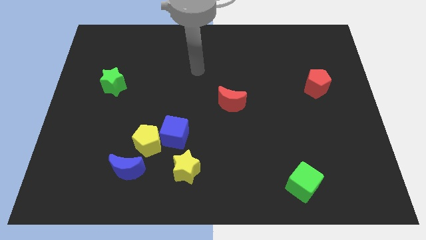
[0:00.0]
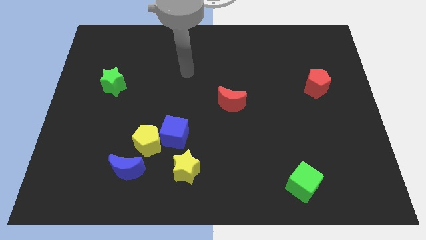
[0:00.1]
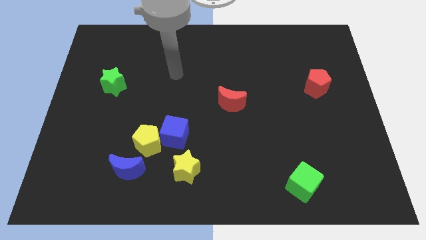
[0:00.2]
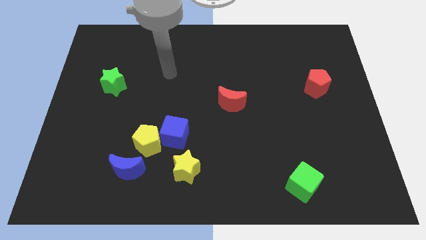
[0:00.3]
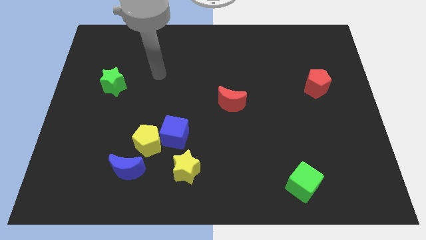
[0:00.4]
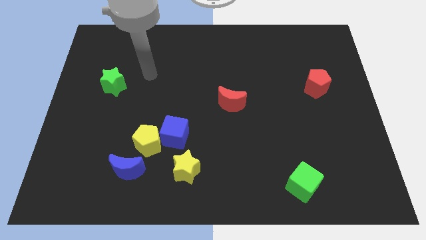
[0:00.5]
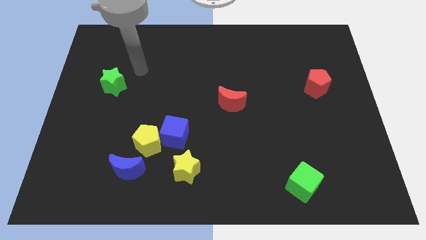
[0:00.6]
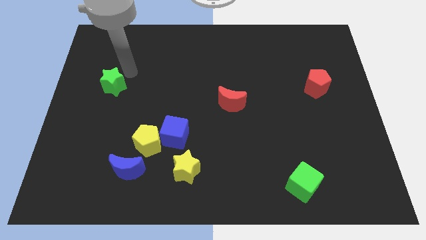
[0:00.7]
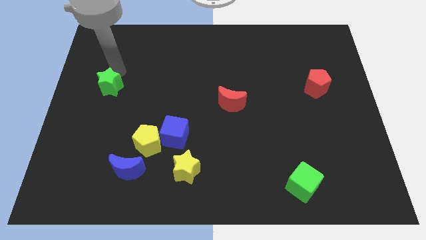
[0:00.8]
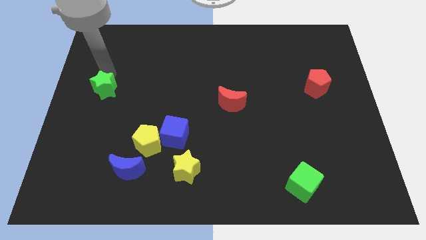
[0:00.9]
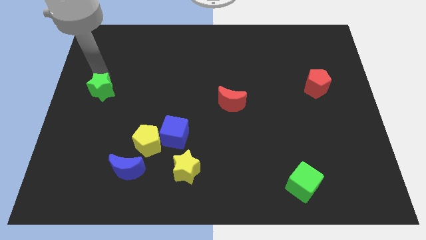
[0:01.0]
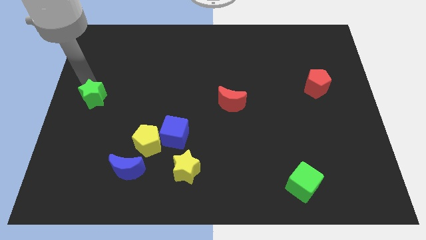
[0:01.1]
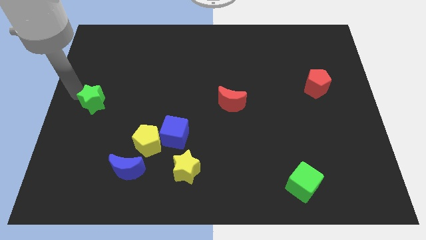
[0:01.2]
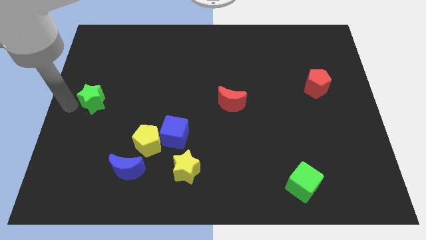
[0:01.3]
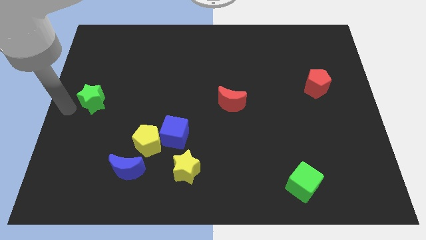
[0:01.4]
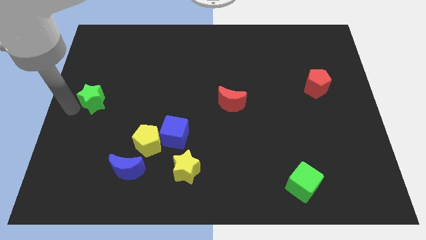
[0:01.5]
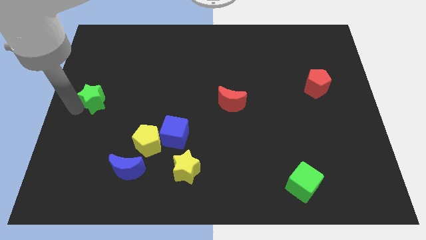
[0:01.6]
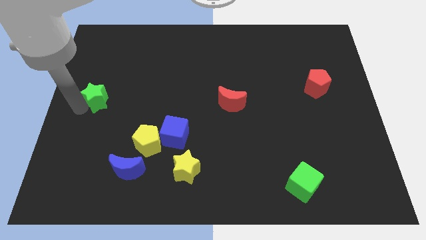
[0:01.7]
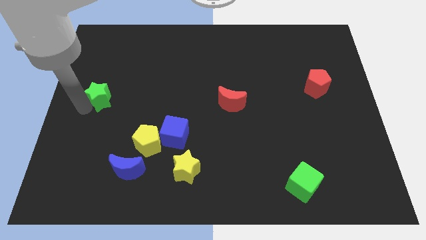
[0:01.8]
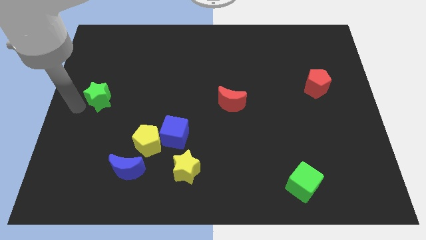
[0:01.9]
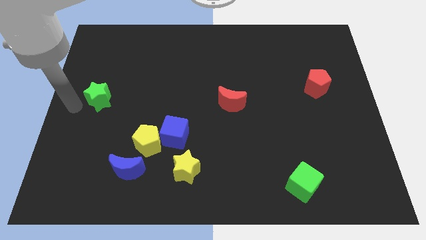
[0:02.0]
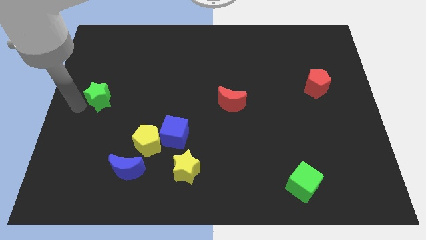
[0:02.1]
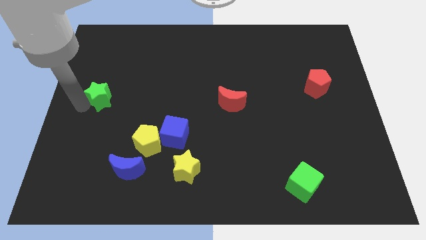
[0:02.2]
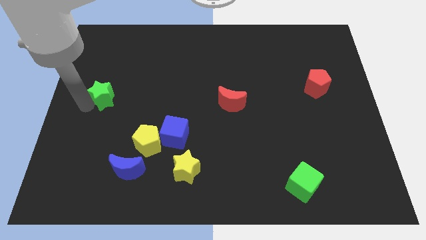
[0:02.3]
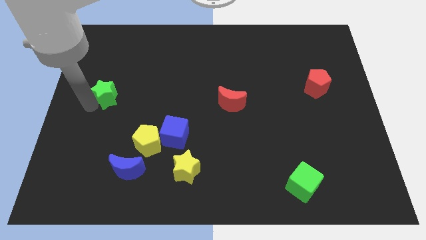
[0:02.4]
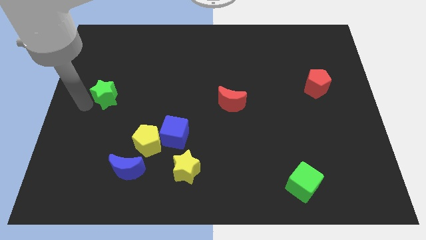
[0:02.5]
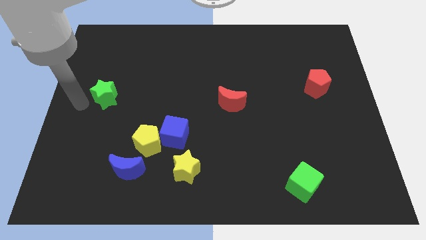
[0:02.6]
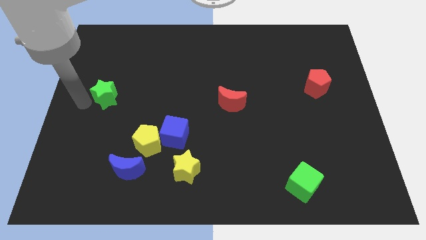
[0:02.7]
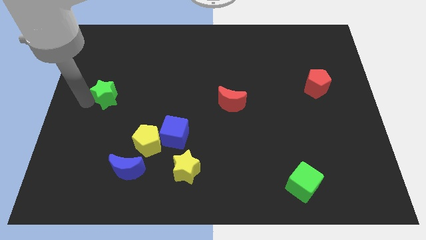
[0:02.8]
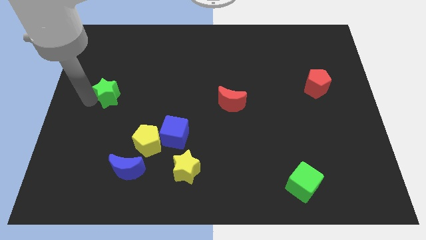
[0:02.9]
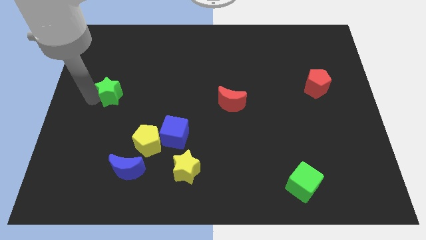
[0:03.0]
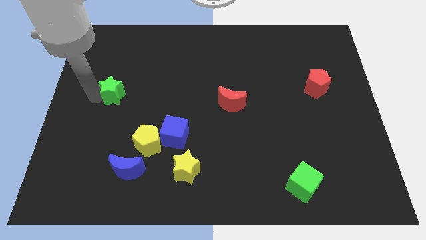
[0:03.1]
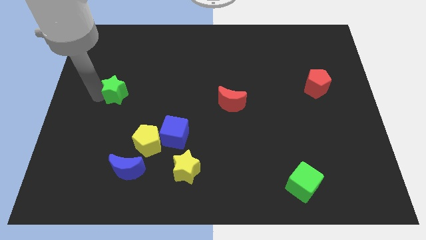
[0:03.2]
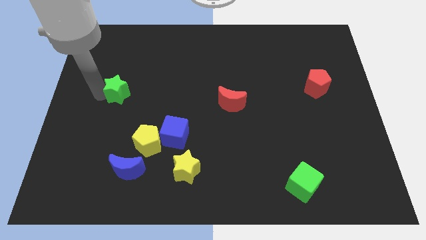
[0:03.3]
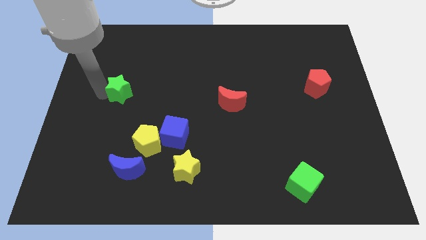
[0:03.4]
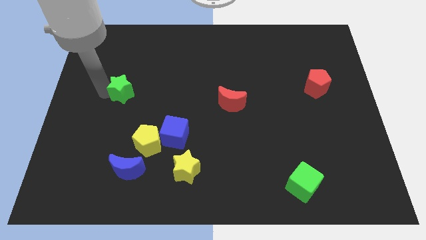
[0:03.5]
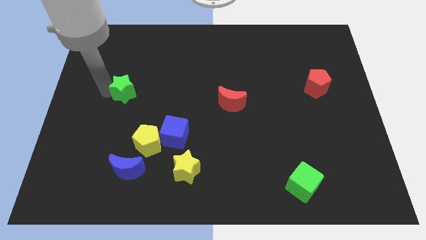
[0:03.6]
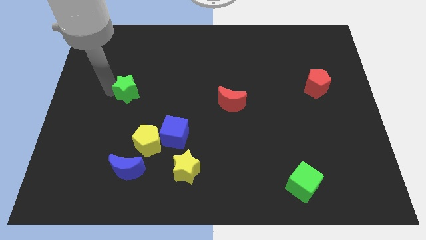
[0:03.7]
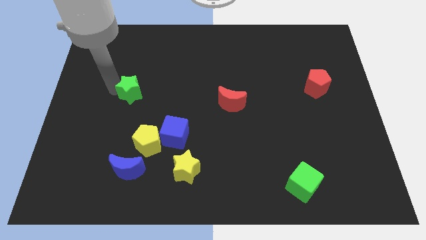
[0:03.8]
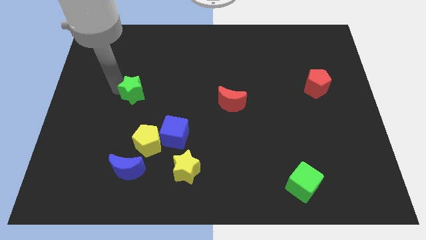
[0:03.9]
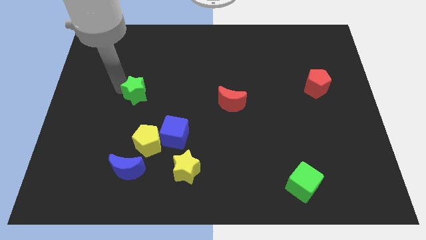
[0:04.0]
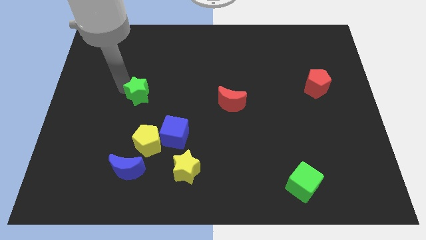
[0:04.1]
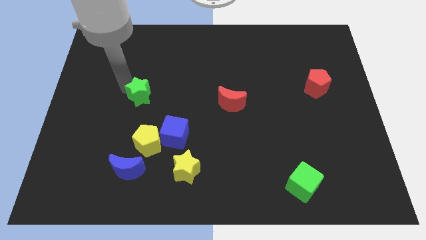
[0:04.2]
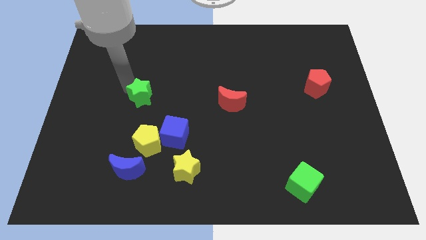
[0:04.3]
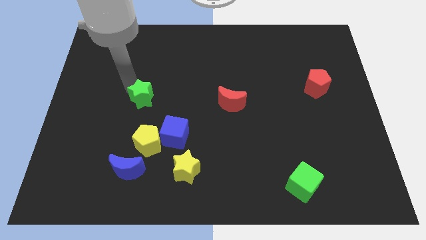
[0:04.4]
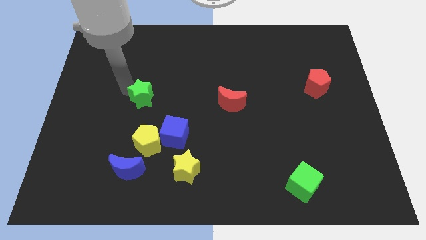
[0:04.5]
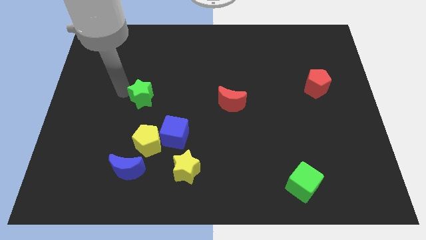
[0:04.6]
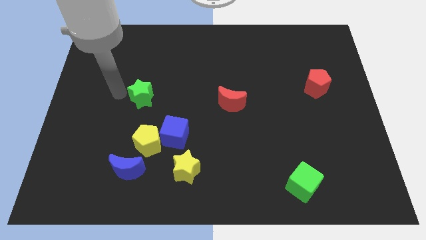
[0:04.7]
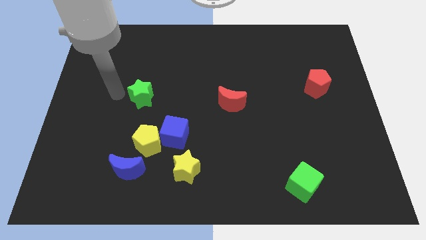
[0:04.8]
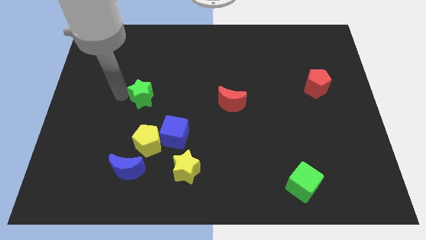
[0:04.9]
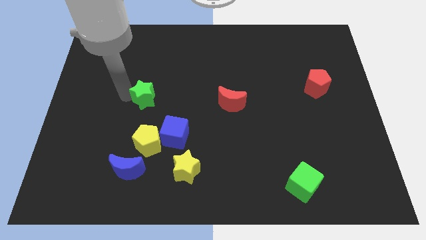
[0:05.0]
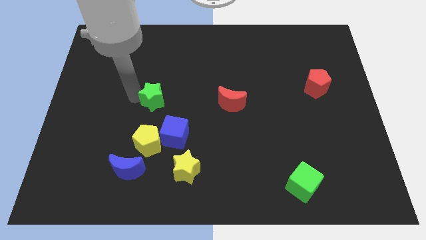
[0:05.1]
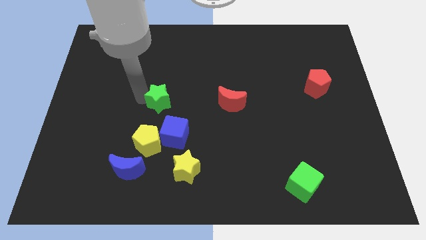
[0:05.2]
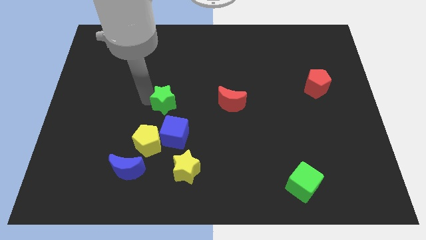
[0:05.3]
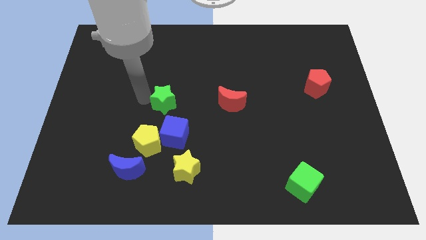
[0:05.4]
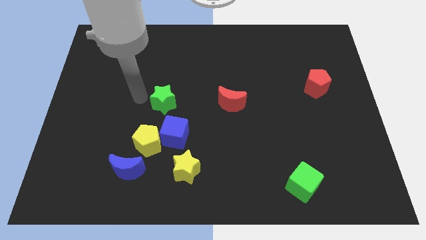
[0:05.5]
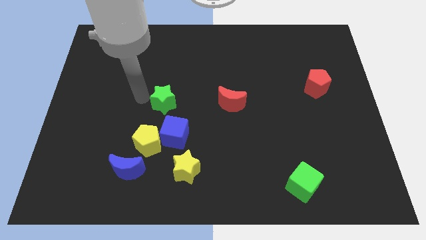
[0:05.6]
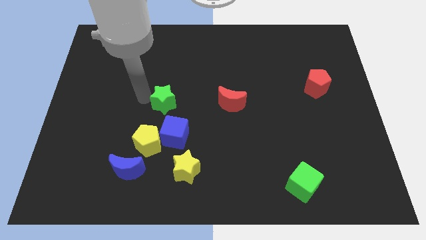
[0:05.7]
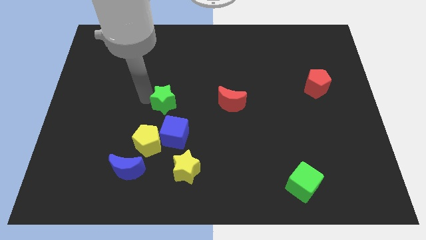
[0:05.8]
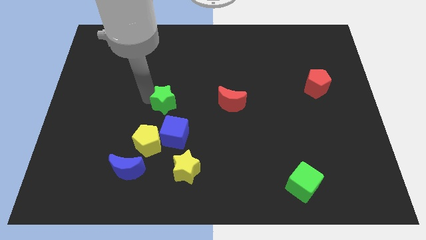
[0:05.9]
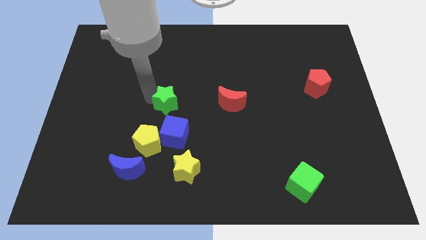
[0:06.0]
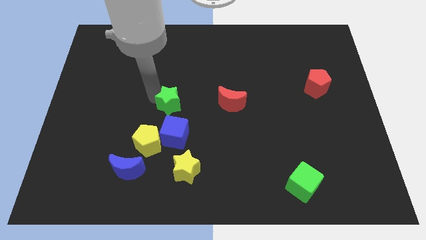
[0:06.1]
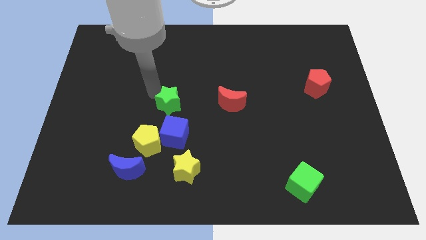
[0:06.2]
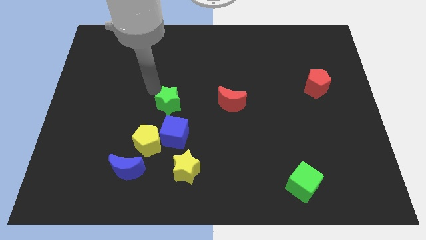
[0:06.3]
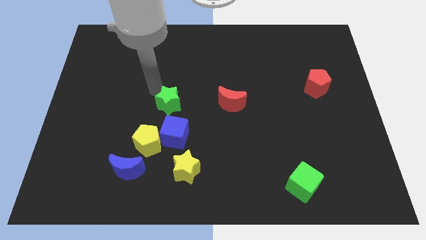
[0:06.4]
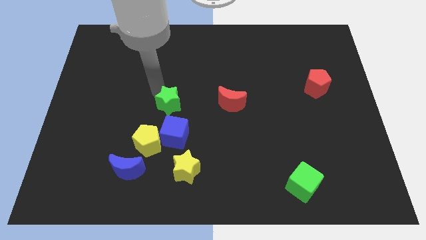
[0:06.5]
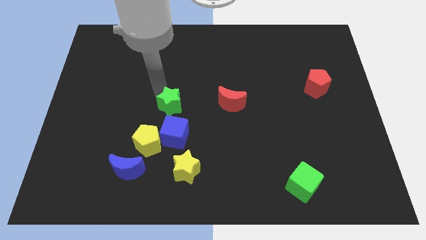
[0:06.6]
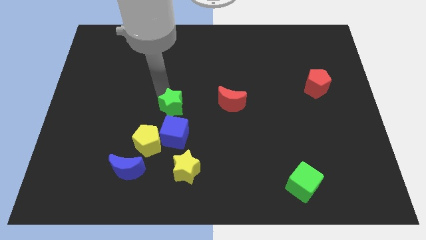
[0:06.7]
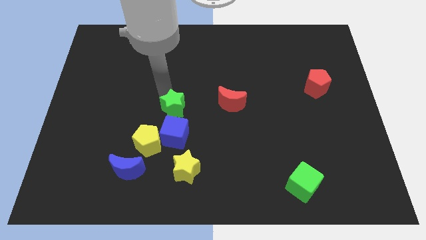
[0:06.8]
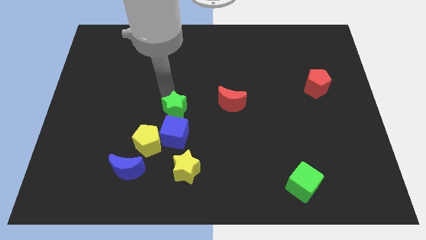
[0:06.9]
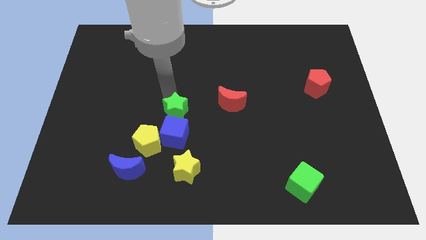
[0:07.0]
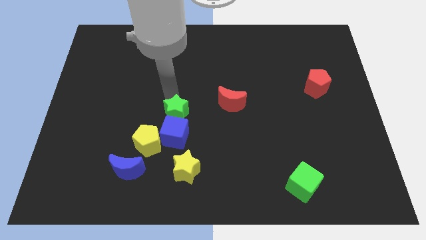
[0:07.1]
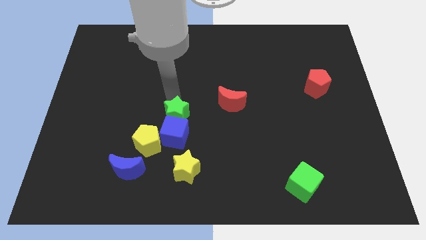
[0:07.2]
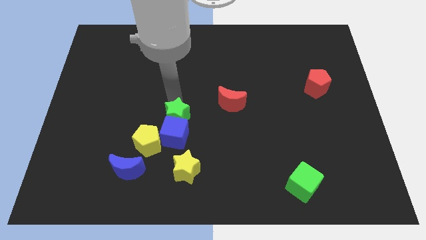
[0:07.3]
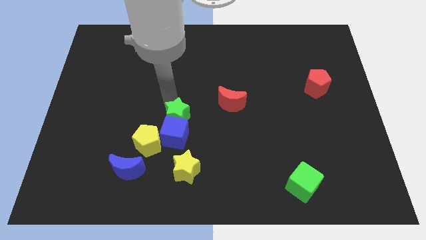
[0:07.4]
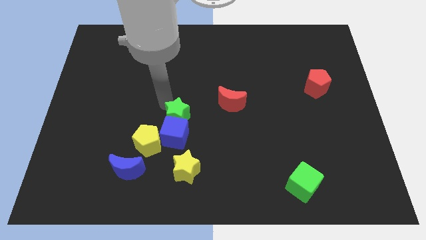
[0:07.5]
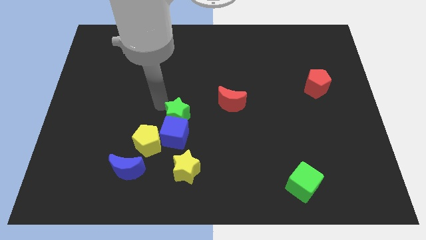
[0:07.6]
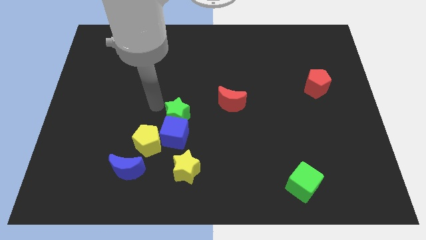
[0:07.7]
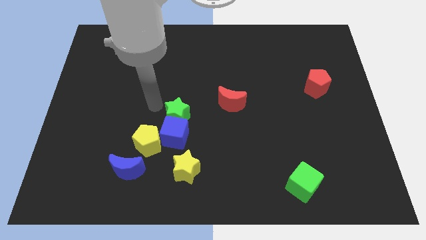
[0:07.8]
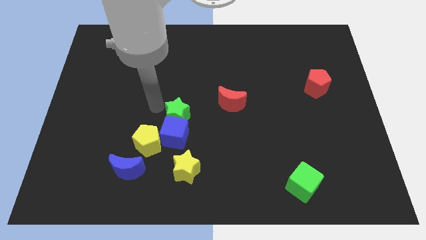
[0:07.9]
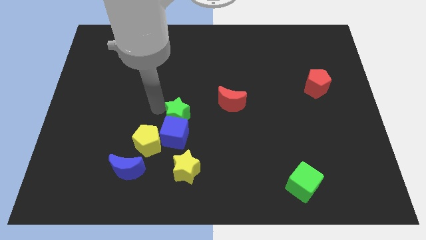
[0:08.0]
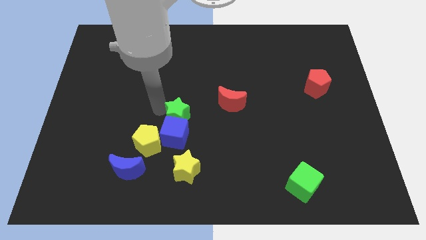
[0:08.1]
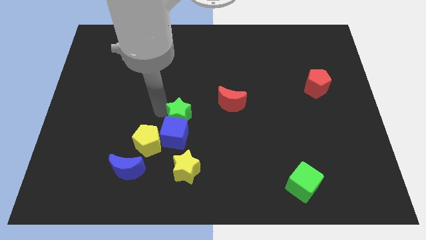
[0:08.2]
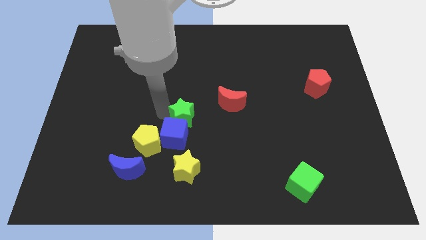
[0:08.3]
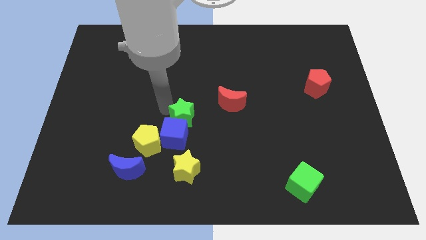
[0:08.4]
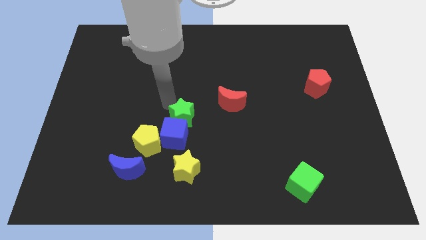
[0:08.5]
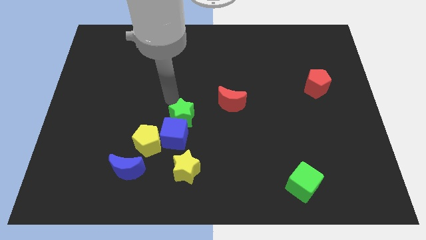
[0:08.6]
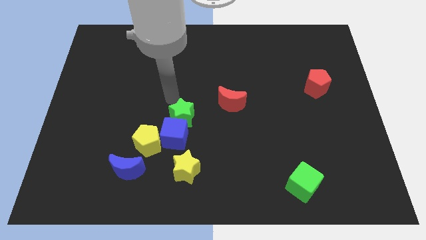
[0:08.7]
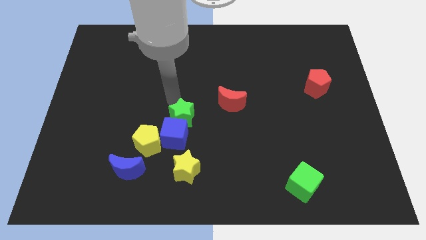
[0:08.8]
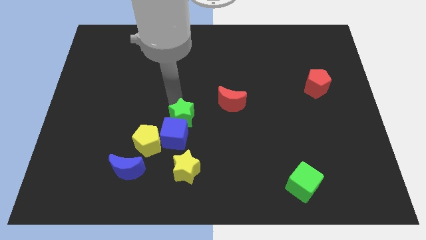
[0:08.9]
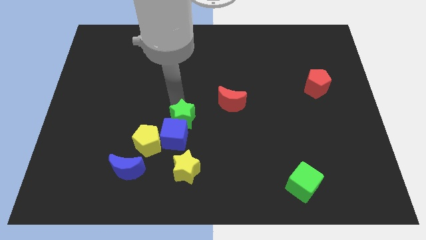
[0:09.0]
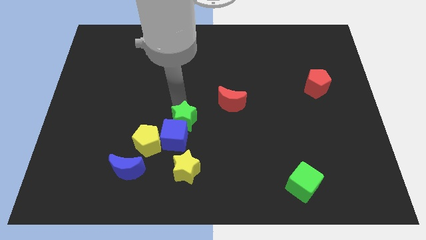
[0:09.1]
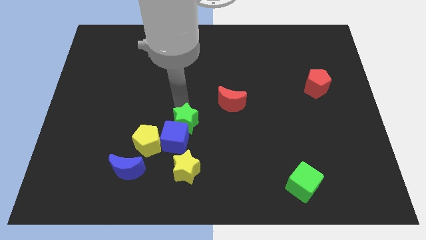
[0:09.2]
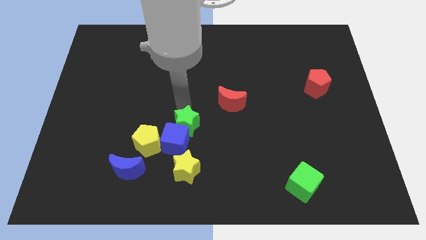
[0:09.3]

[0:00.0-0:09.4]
slide the green star to the right of the yellow pentagon
